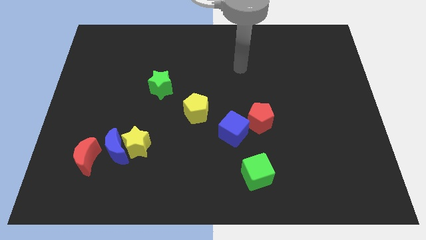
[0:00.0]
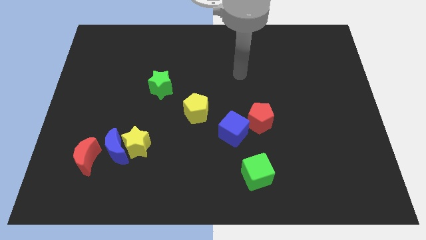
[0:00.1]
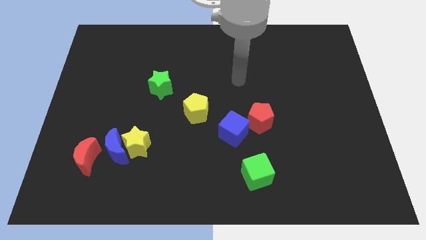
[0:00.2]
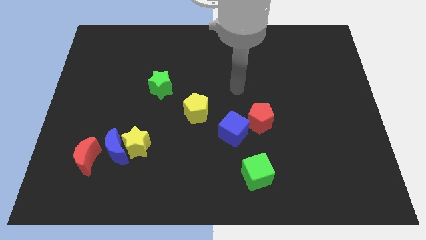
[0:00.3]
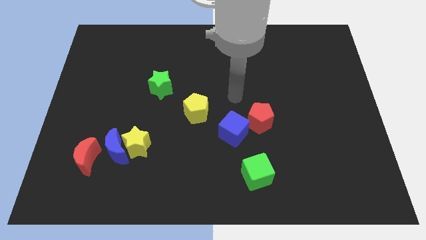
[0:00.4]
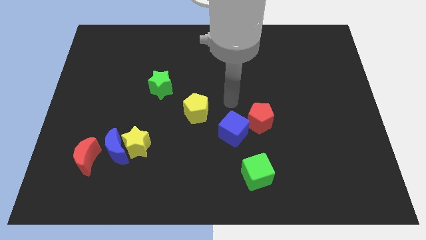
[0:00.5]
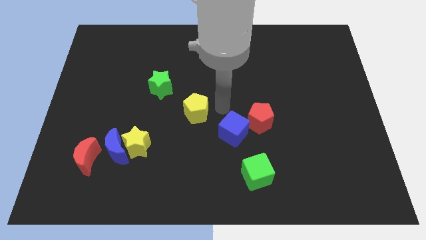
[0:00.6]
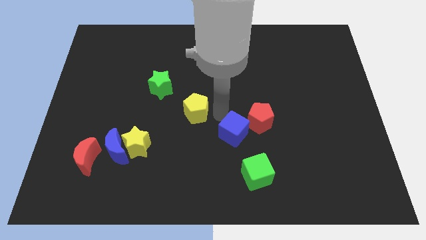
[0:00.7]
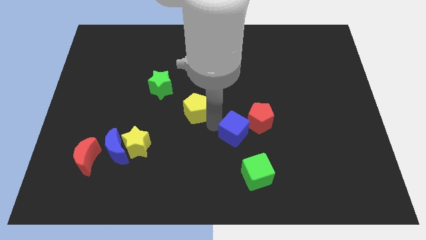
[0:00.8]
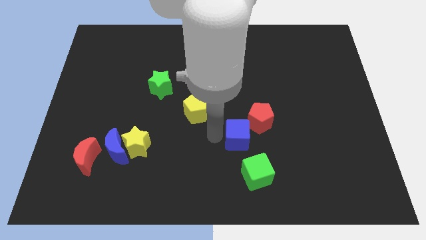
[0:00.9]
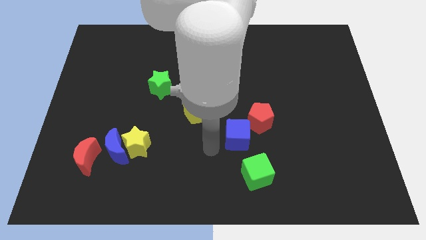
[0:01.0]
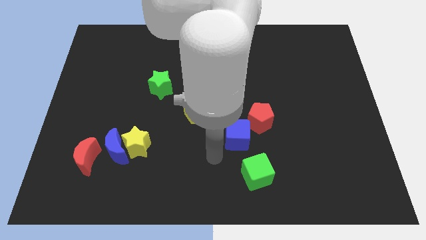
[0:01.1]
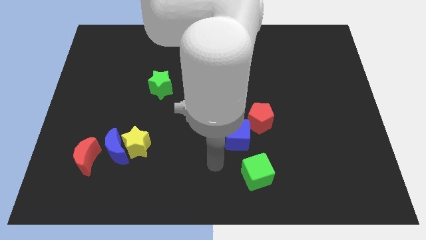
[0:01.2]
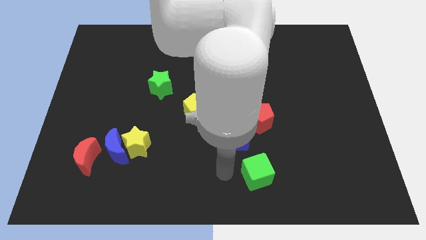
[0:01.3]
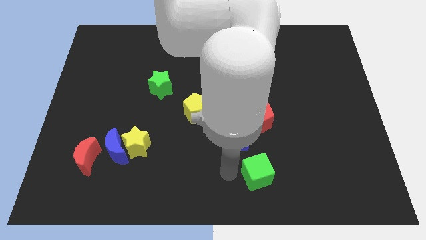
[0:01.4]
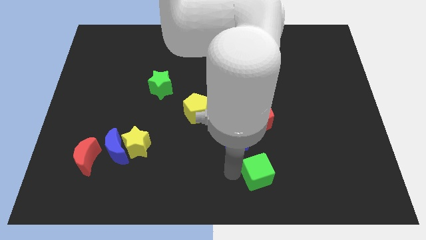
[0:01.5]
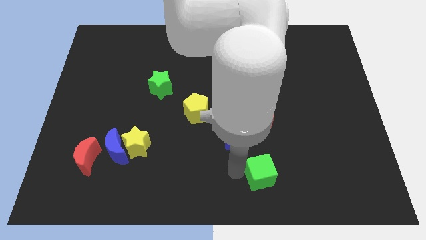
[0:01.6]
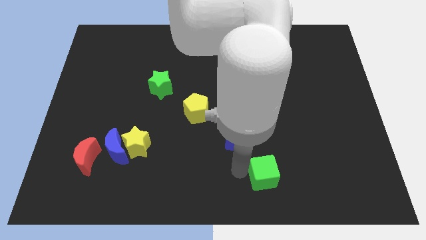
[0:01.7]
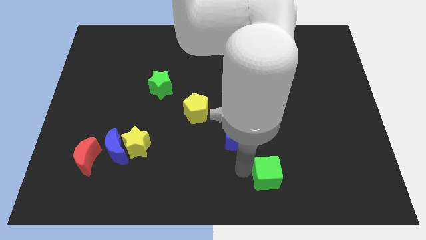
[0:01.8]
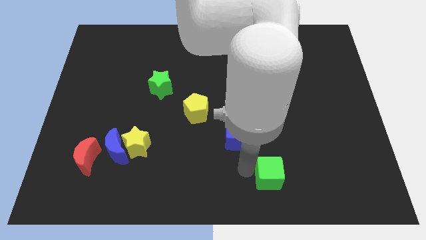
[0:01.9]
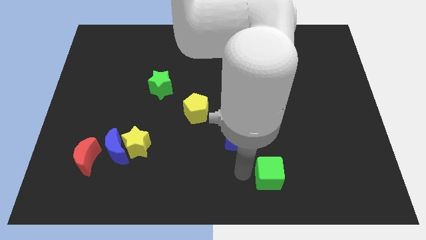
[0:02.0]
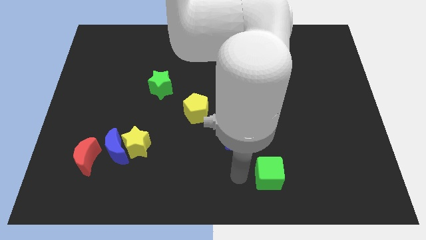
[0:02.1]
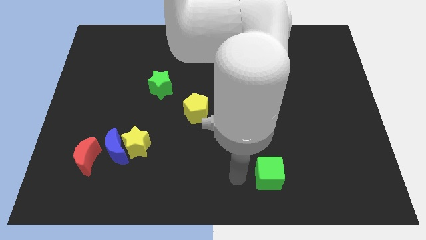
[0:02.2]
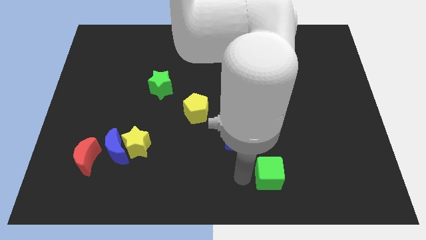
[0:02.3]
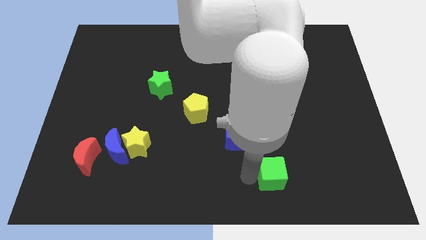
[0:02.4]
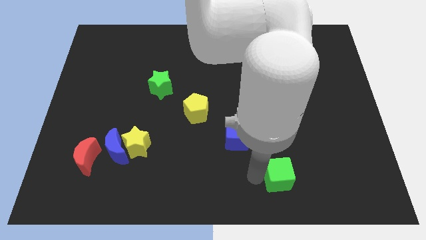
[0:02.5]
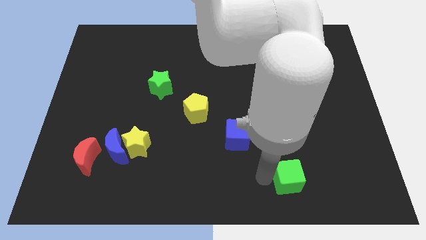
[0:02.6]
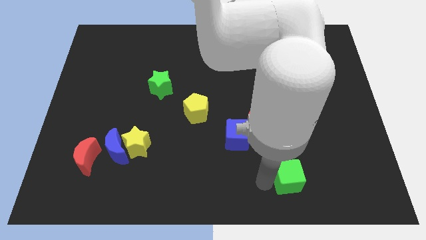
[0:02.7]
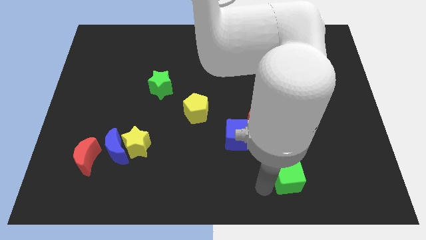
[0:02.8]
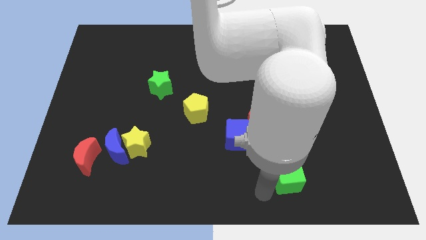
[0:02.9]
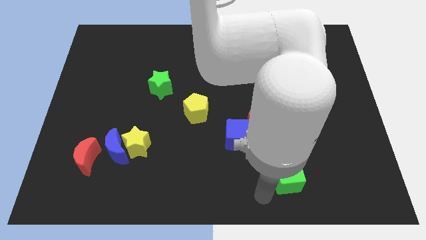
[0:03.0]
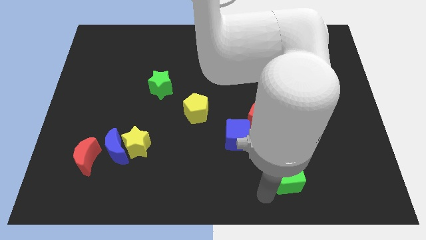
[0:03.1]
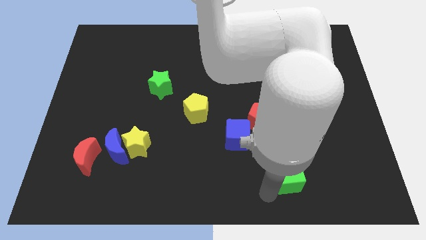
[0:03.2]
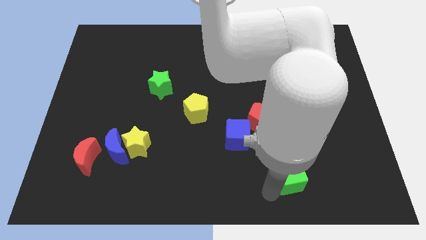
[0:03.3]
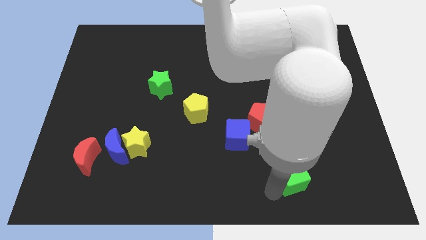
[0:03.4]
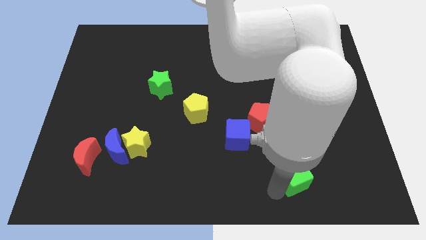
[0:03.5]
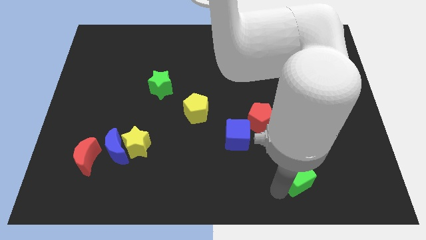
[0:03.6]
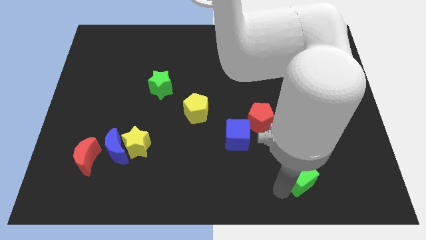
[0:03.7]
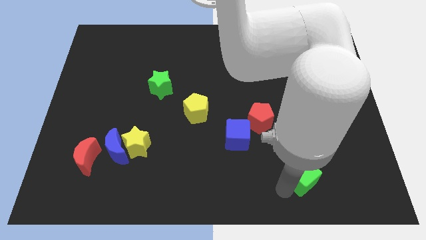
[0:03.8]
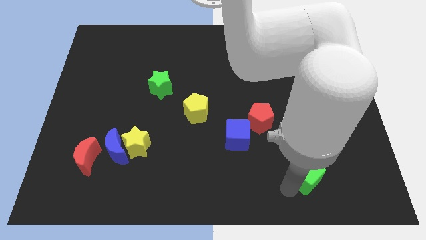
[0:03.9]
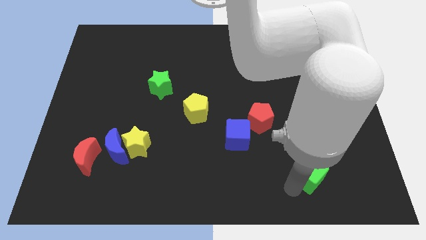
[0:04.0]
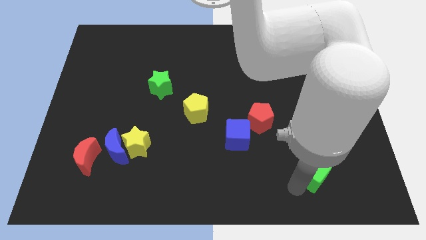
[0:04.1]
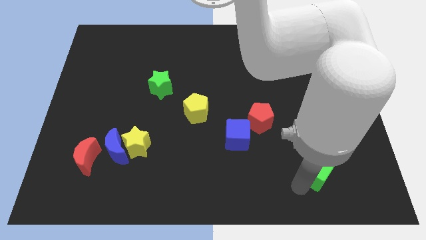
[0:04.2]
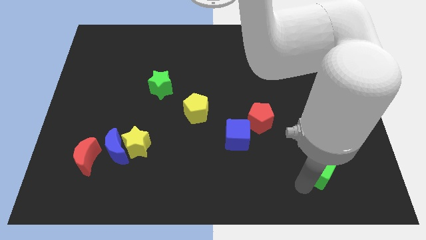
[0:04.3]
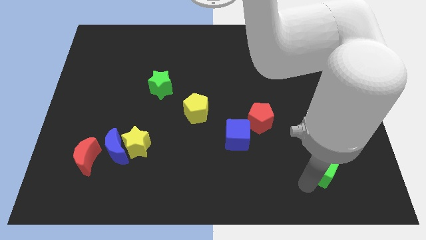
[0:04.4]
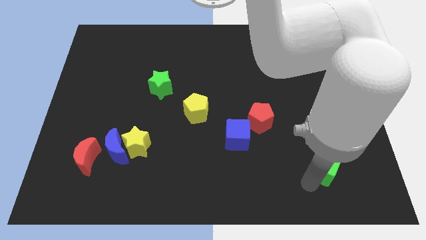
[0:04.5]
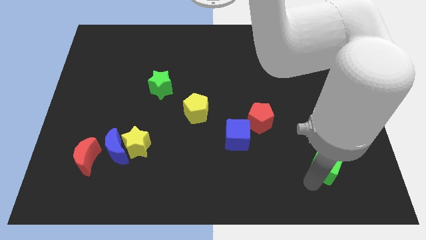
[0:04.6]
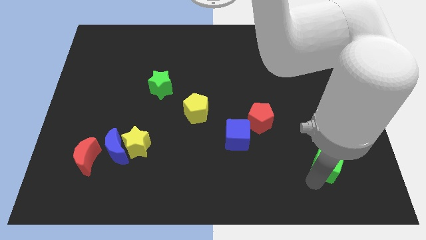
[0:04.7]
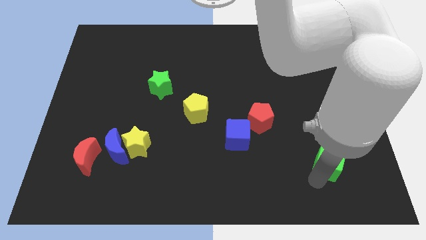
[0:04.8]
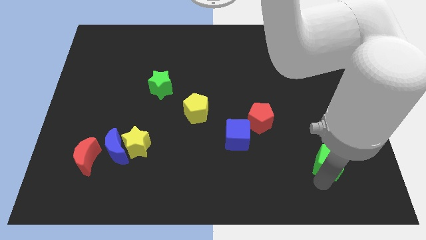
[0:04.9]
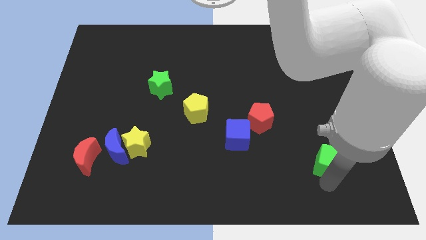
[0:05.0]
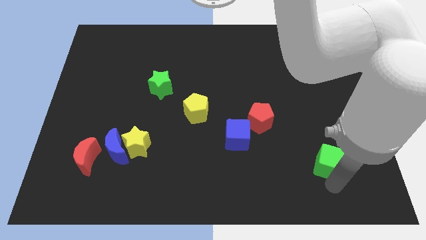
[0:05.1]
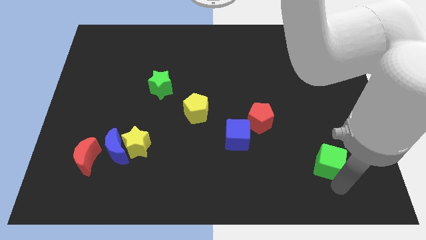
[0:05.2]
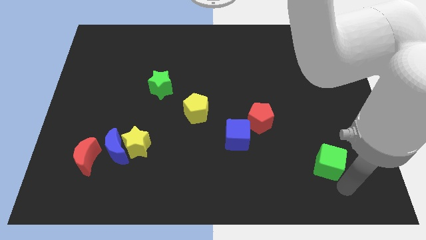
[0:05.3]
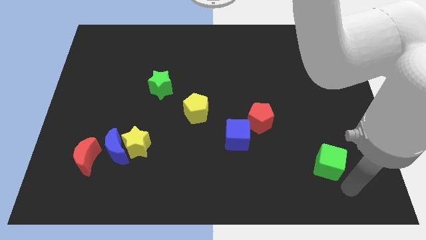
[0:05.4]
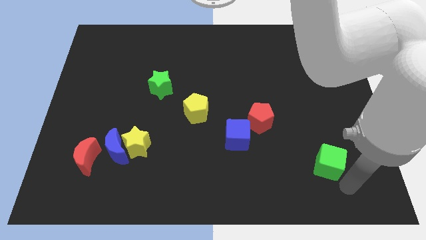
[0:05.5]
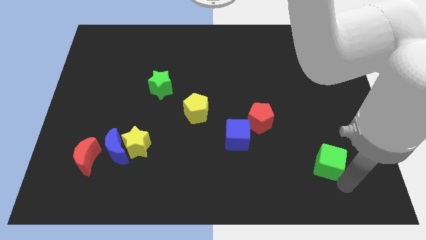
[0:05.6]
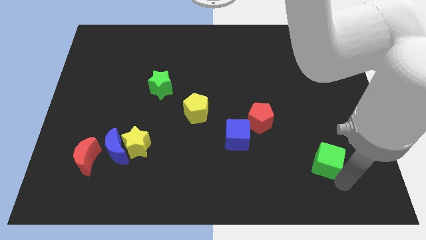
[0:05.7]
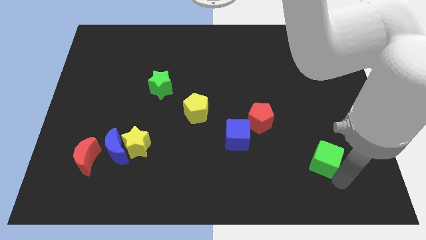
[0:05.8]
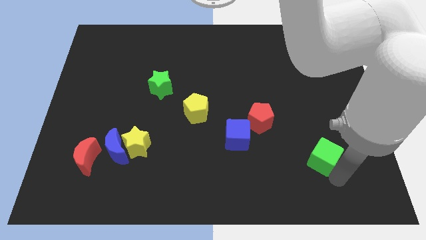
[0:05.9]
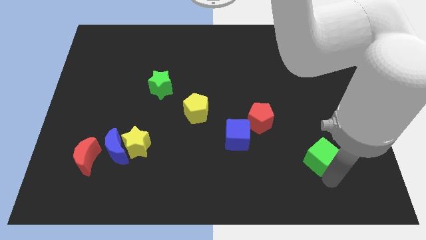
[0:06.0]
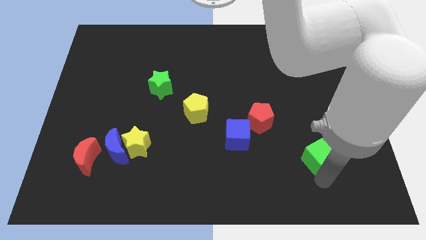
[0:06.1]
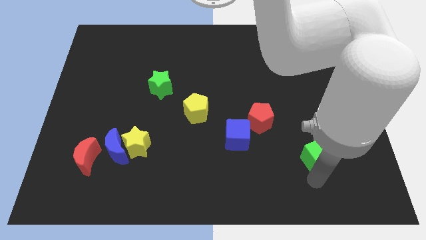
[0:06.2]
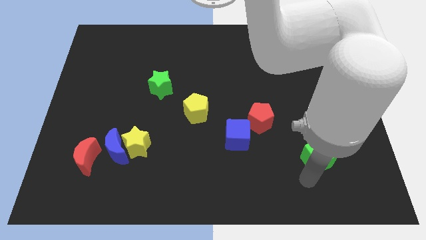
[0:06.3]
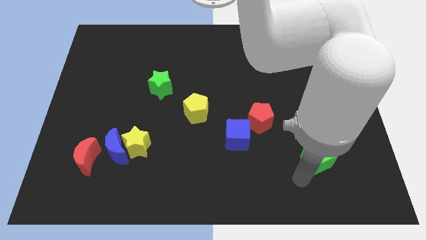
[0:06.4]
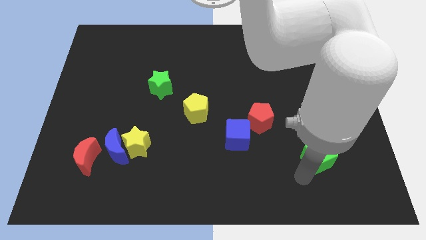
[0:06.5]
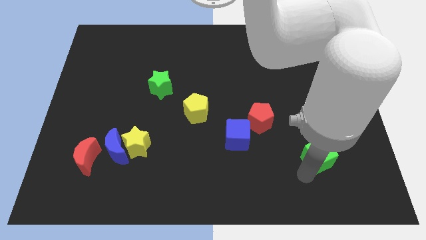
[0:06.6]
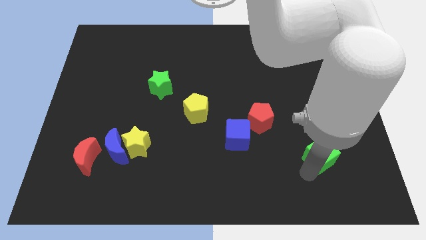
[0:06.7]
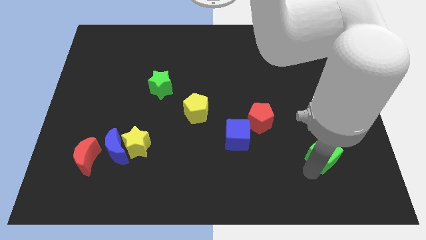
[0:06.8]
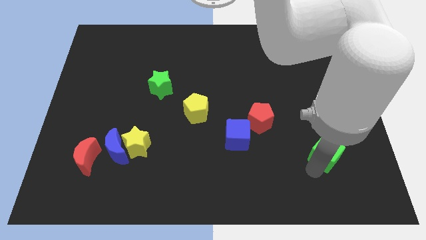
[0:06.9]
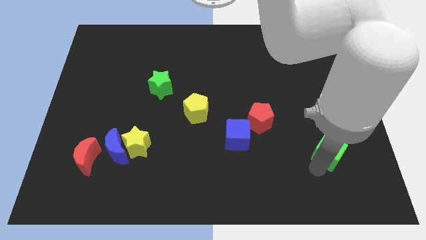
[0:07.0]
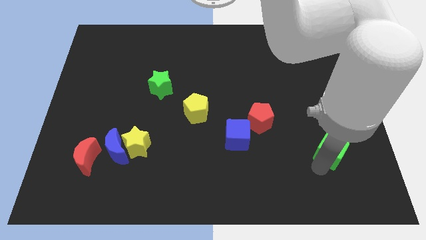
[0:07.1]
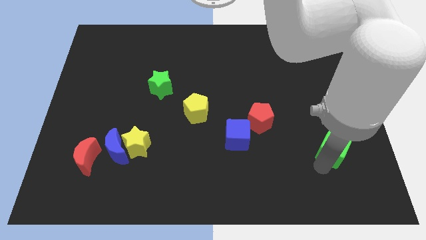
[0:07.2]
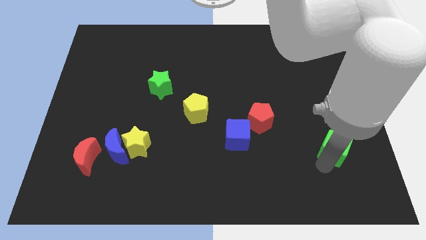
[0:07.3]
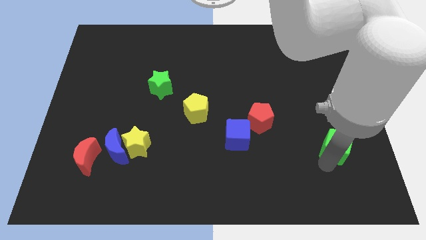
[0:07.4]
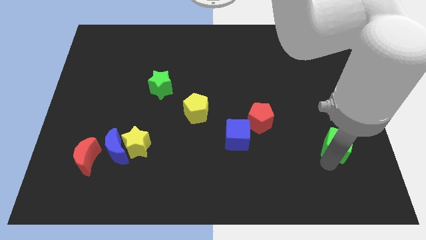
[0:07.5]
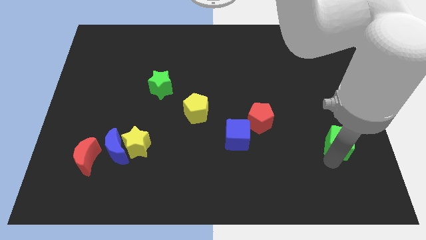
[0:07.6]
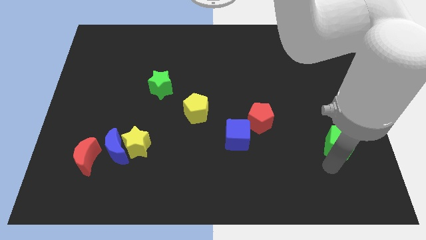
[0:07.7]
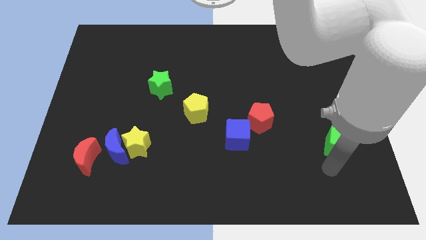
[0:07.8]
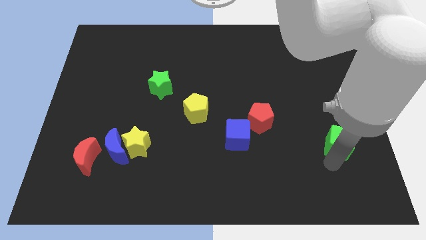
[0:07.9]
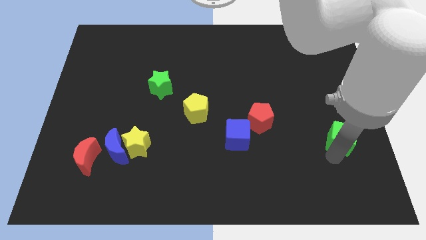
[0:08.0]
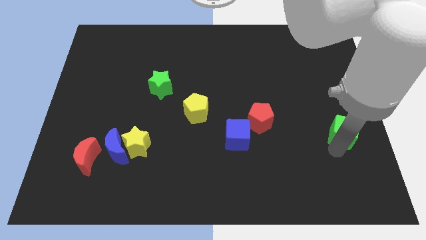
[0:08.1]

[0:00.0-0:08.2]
put the green cube to the center right
